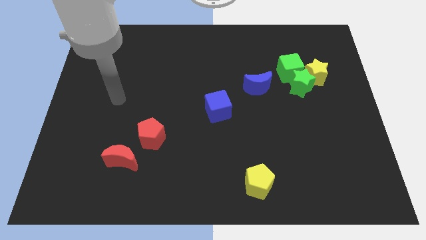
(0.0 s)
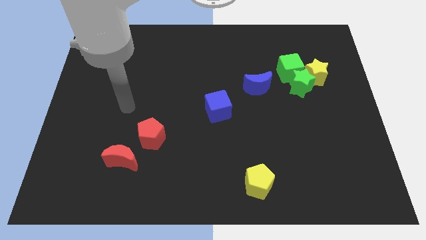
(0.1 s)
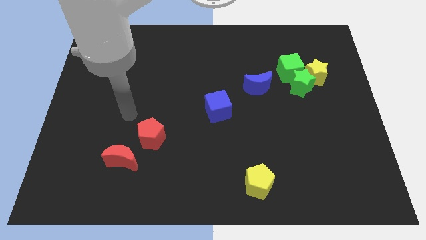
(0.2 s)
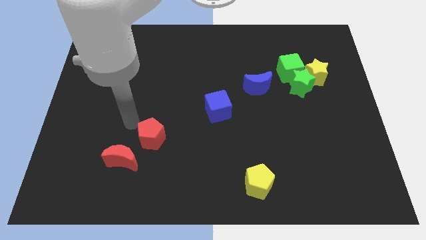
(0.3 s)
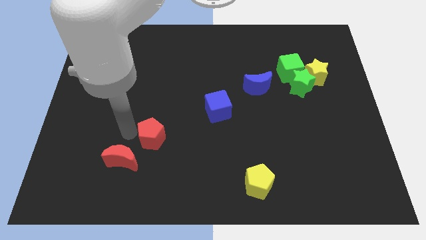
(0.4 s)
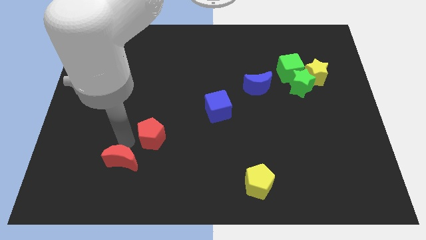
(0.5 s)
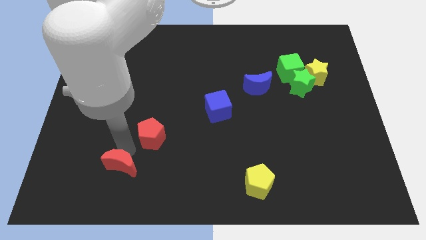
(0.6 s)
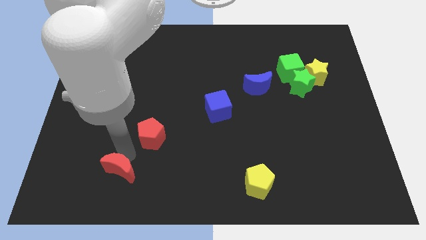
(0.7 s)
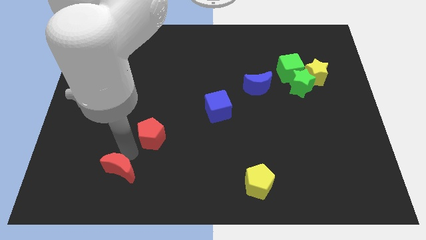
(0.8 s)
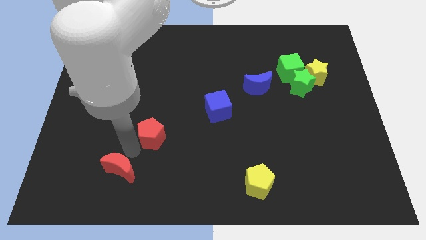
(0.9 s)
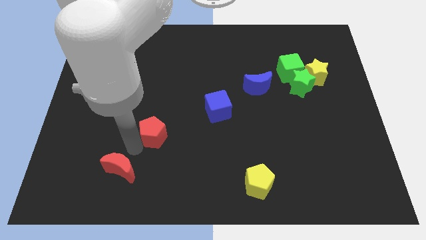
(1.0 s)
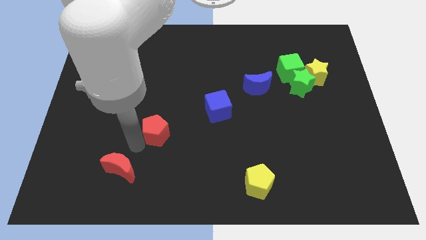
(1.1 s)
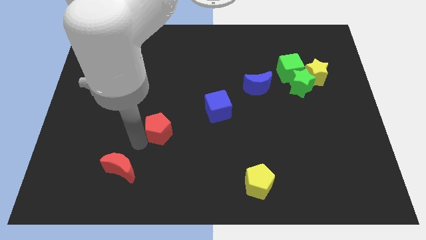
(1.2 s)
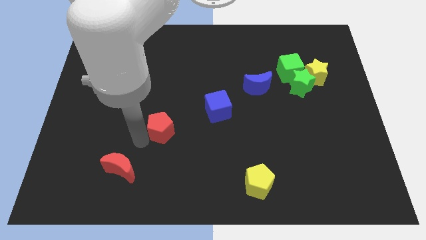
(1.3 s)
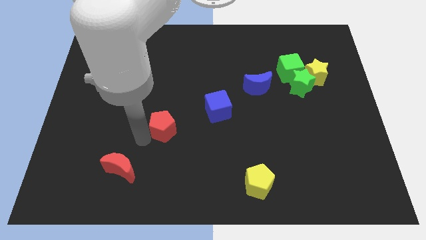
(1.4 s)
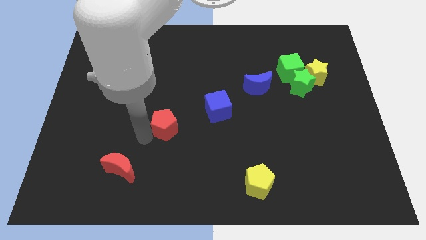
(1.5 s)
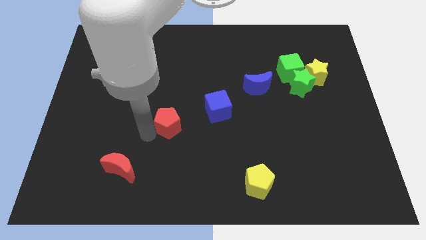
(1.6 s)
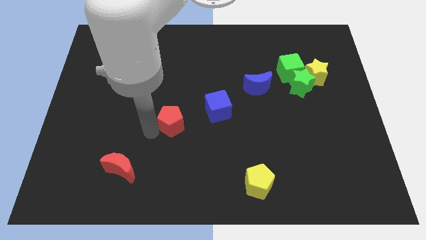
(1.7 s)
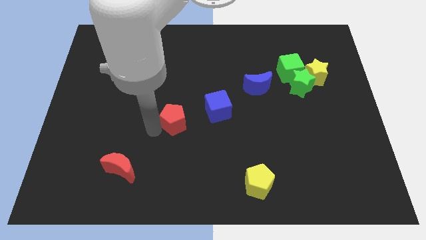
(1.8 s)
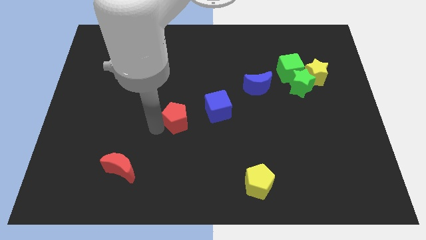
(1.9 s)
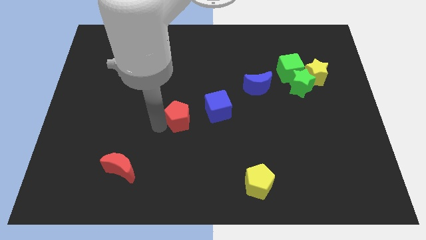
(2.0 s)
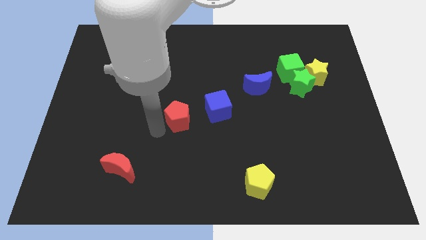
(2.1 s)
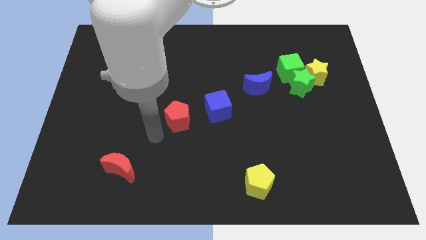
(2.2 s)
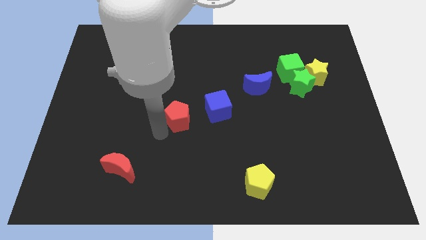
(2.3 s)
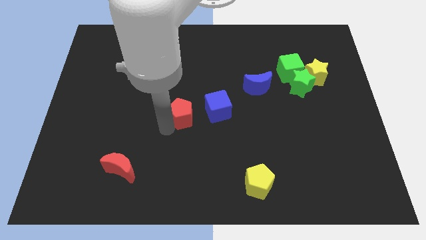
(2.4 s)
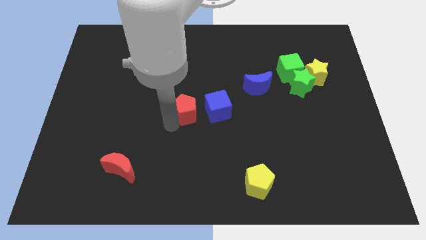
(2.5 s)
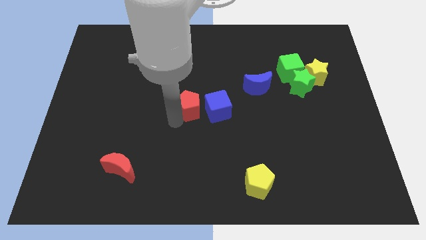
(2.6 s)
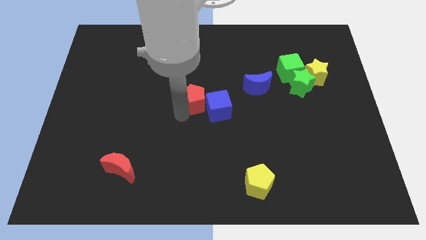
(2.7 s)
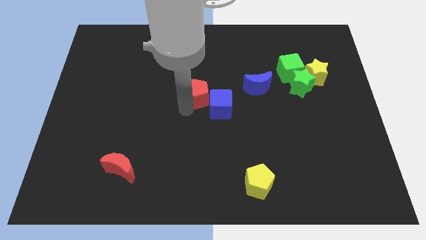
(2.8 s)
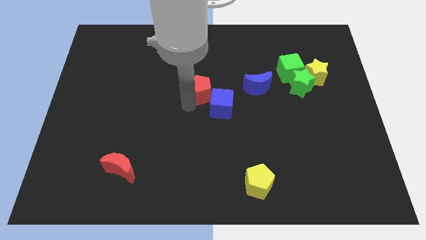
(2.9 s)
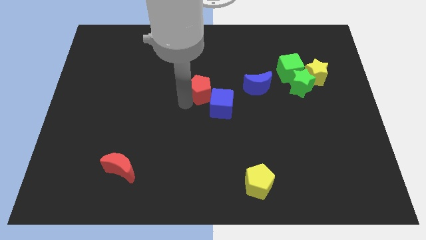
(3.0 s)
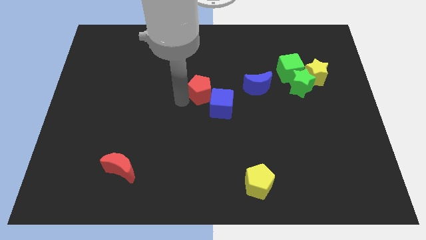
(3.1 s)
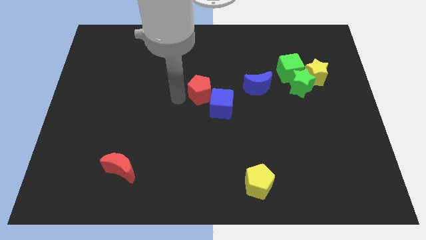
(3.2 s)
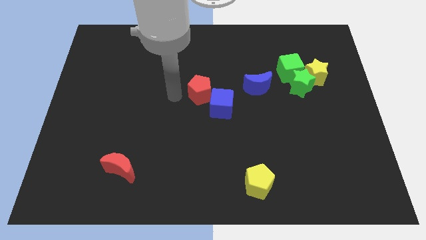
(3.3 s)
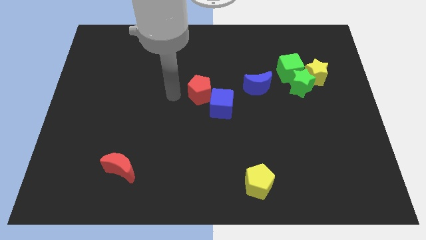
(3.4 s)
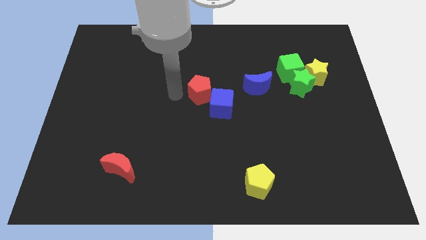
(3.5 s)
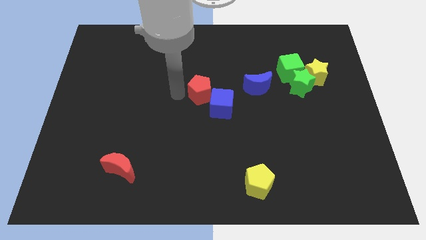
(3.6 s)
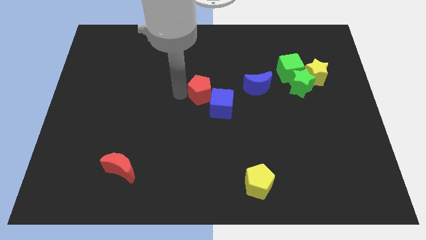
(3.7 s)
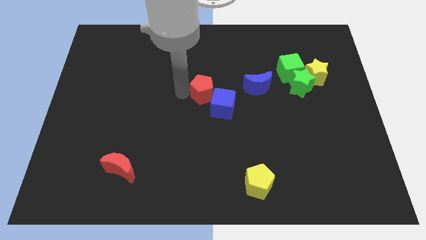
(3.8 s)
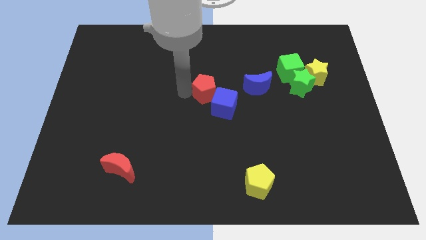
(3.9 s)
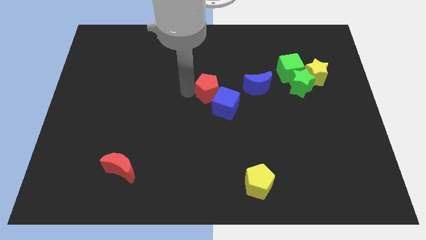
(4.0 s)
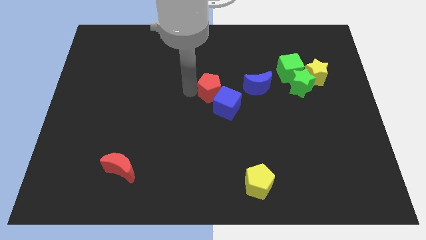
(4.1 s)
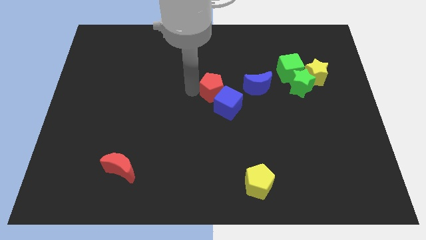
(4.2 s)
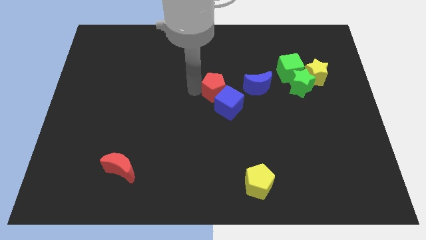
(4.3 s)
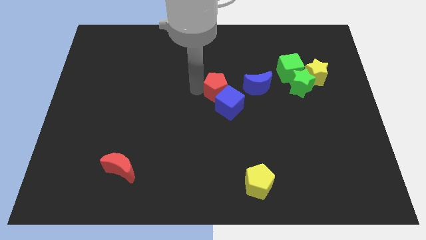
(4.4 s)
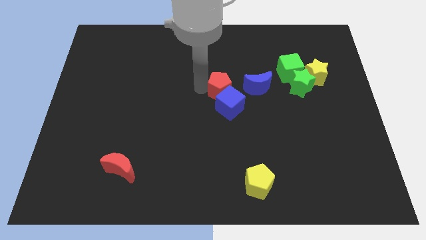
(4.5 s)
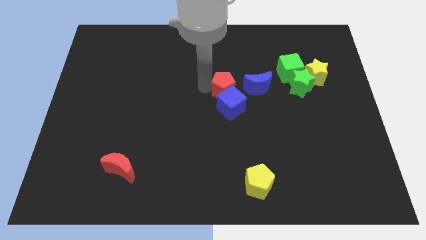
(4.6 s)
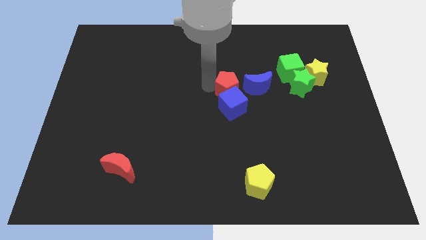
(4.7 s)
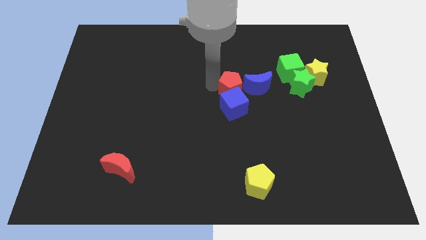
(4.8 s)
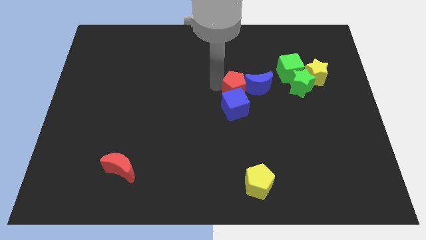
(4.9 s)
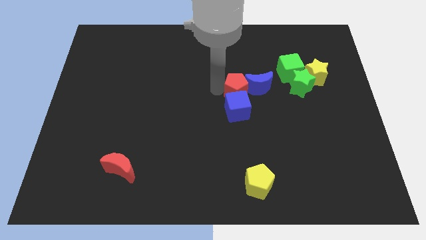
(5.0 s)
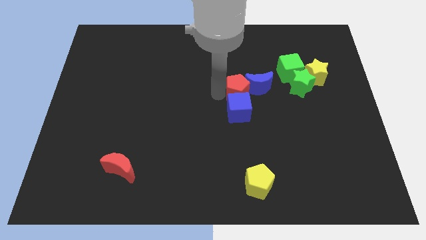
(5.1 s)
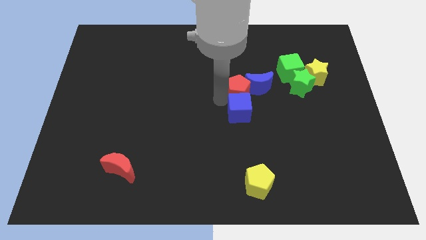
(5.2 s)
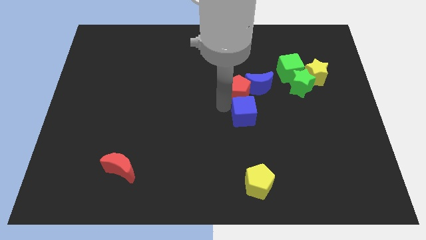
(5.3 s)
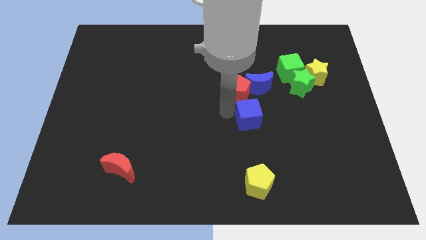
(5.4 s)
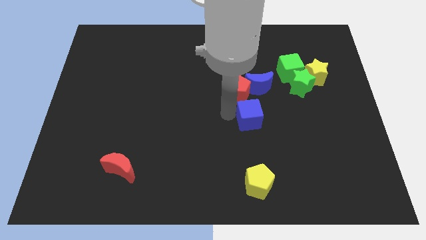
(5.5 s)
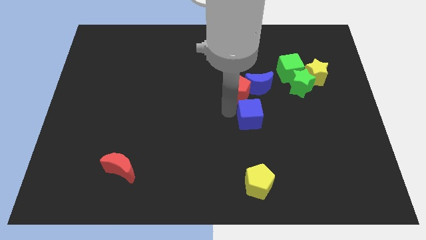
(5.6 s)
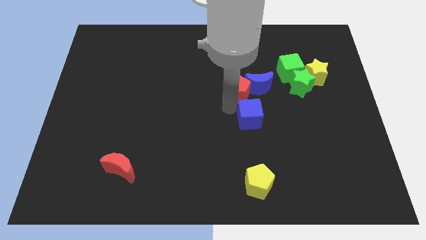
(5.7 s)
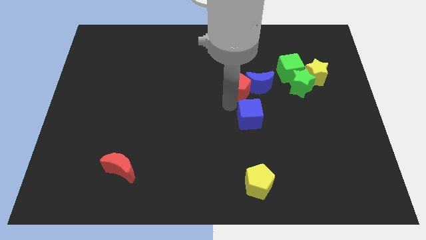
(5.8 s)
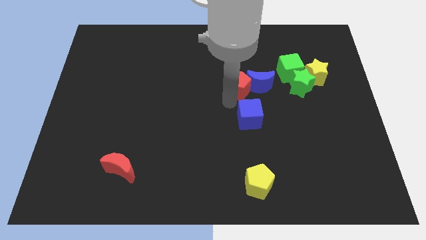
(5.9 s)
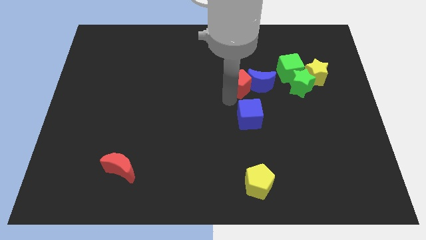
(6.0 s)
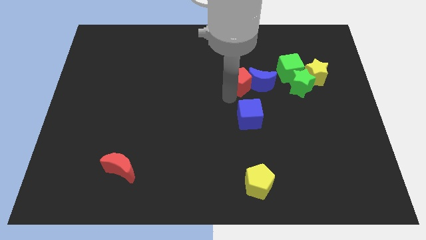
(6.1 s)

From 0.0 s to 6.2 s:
slide the red pentagon to the left of the green cube
